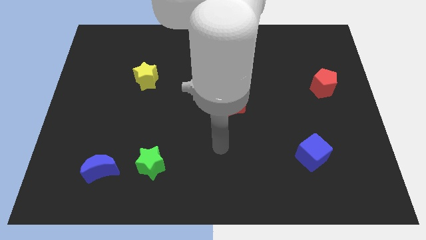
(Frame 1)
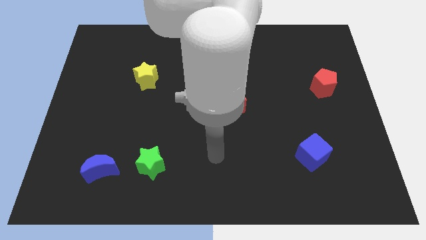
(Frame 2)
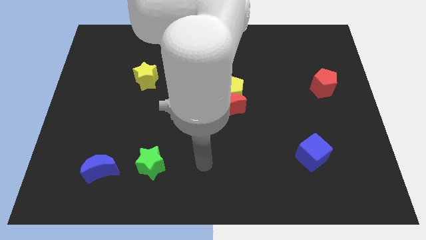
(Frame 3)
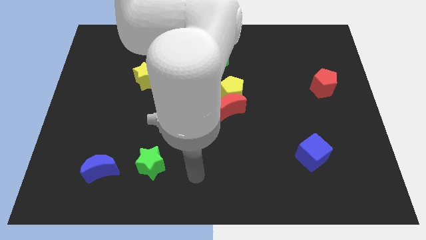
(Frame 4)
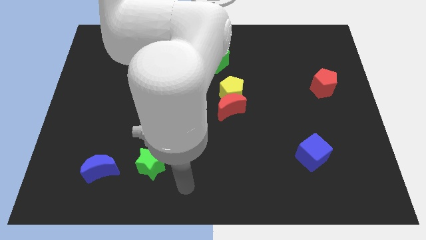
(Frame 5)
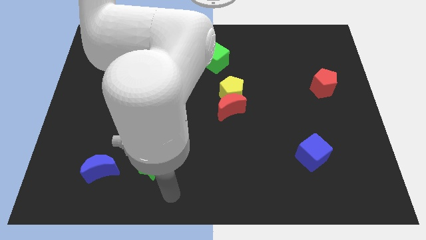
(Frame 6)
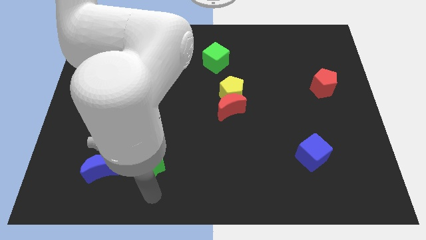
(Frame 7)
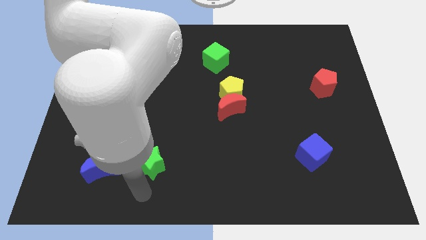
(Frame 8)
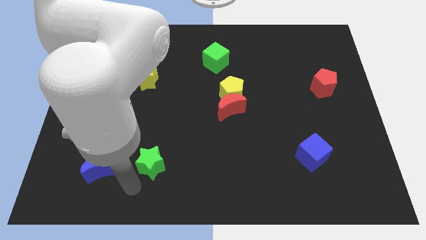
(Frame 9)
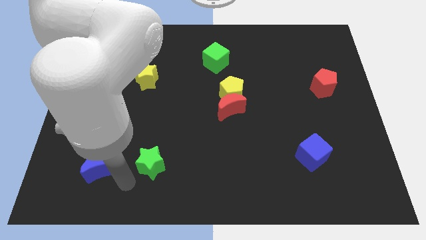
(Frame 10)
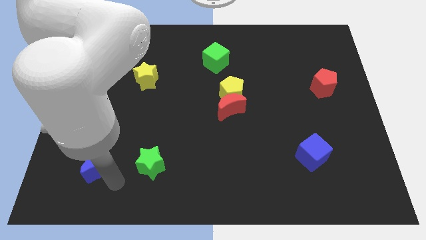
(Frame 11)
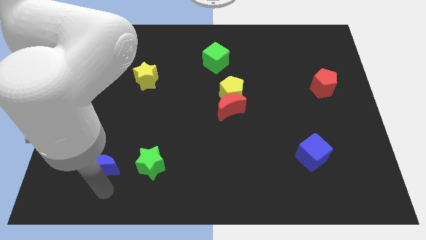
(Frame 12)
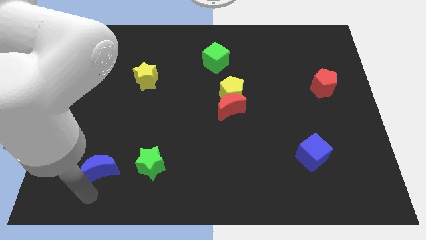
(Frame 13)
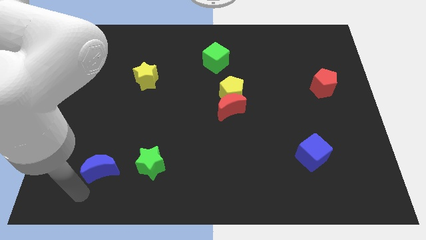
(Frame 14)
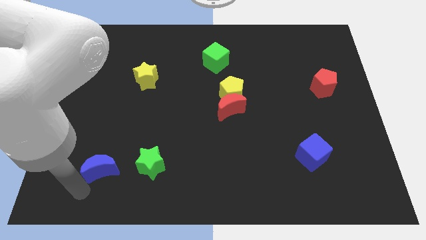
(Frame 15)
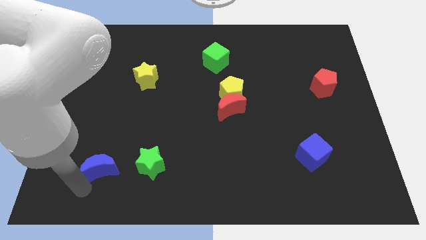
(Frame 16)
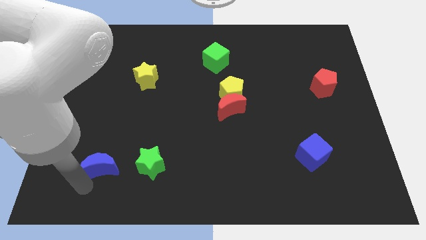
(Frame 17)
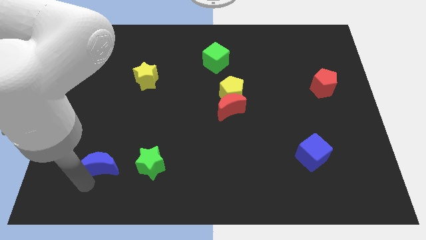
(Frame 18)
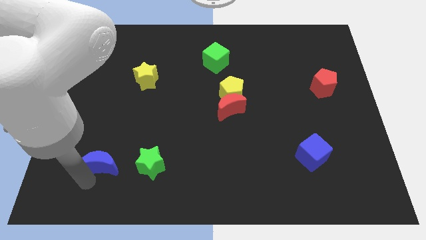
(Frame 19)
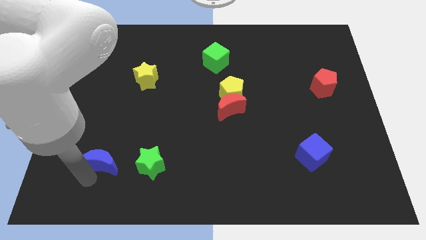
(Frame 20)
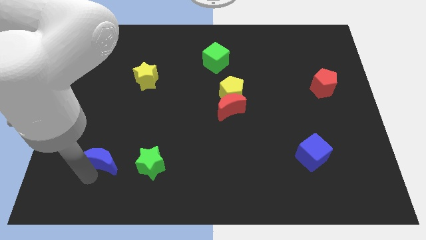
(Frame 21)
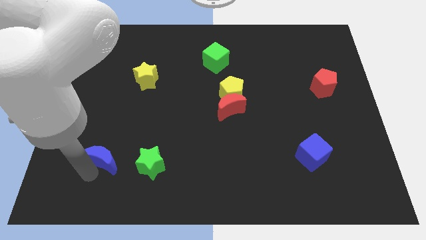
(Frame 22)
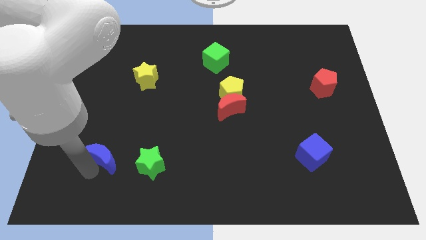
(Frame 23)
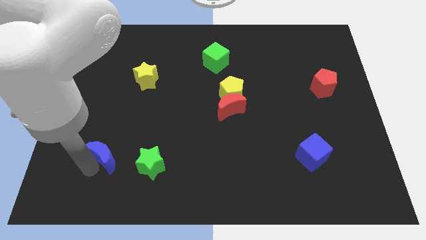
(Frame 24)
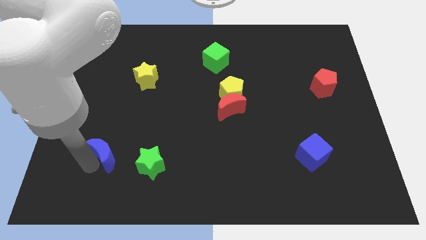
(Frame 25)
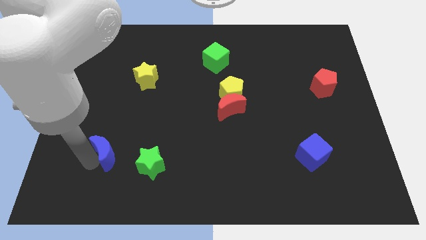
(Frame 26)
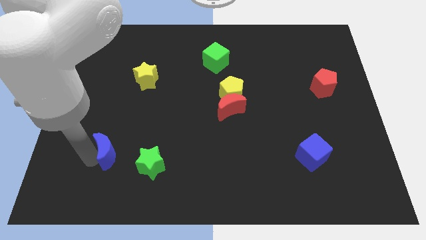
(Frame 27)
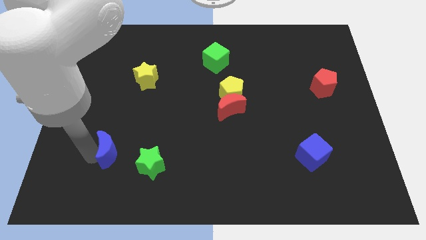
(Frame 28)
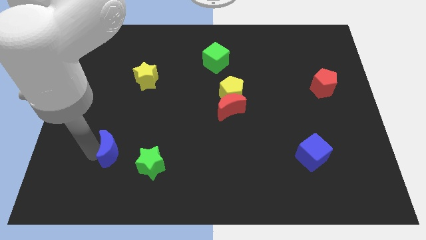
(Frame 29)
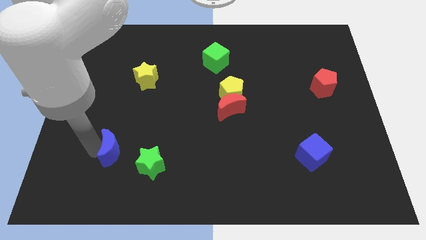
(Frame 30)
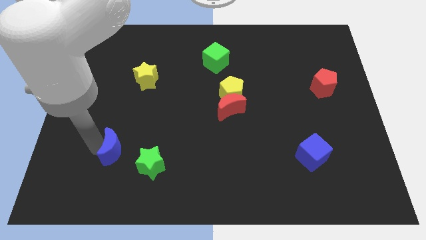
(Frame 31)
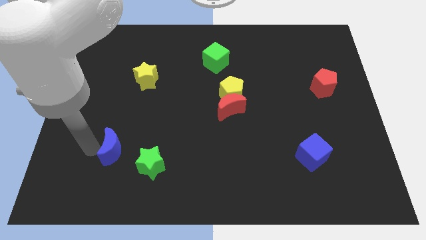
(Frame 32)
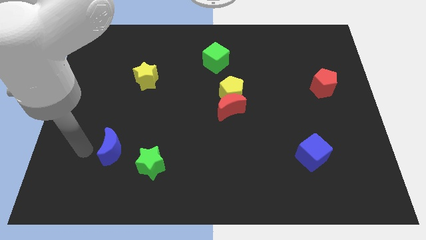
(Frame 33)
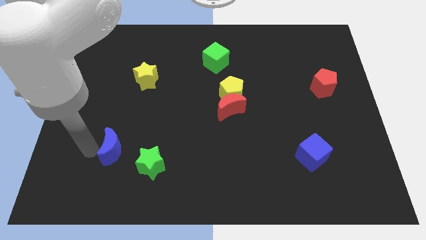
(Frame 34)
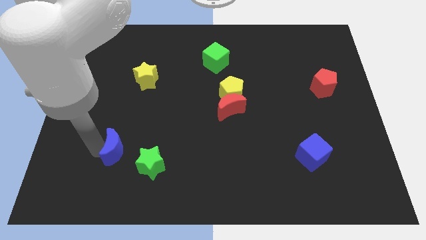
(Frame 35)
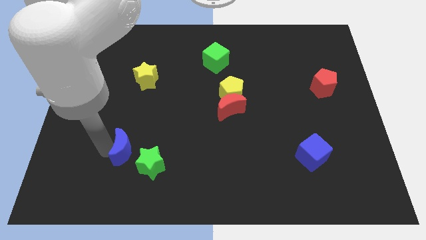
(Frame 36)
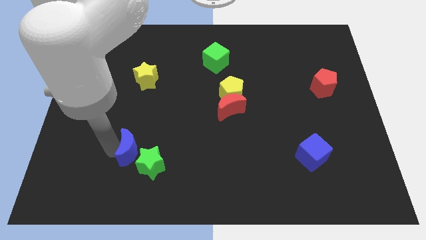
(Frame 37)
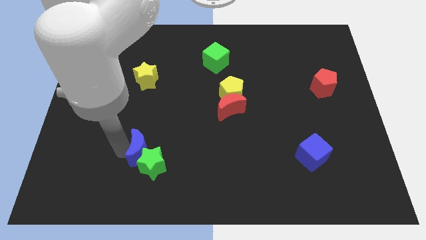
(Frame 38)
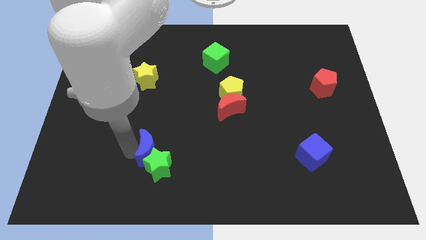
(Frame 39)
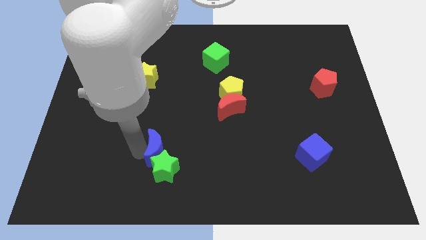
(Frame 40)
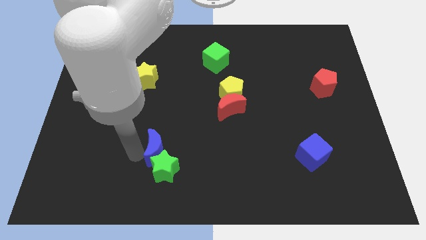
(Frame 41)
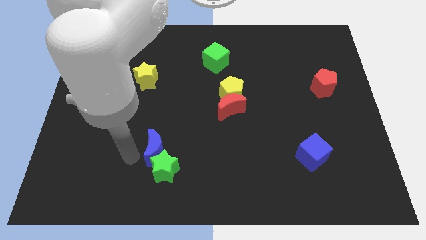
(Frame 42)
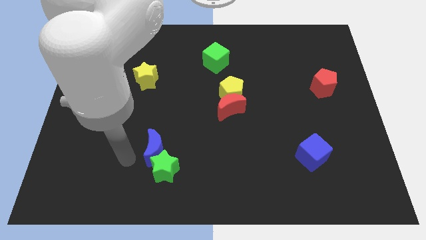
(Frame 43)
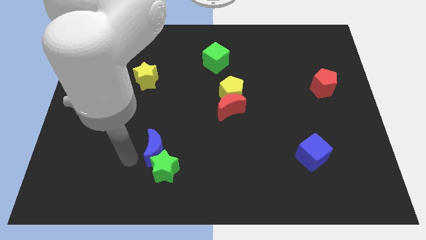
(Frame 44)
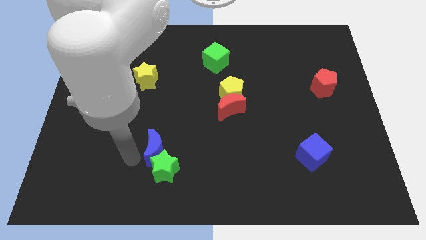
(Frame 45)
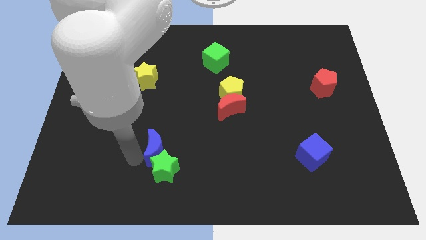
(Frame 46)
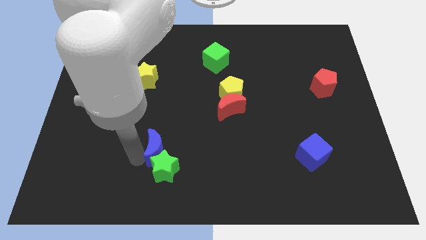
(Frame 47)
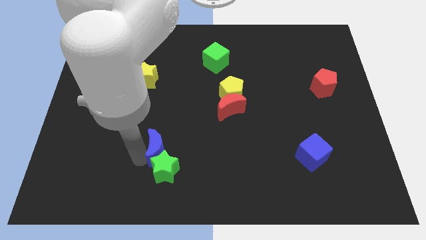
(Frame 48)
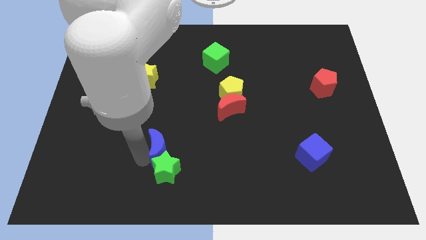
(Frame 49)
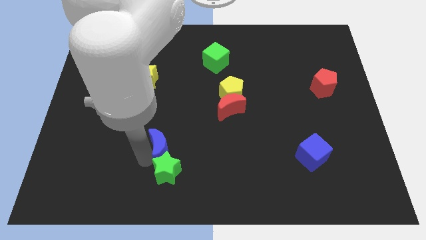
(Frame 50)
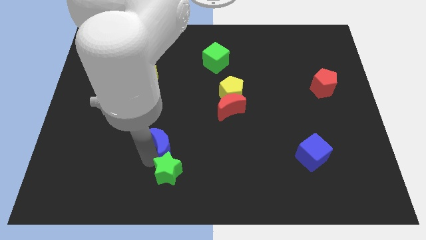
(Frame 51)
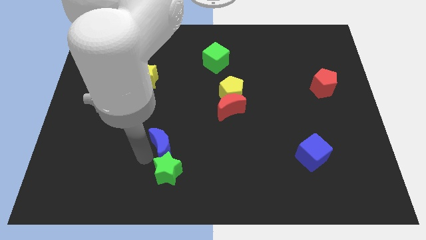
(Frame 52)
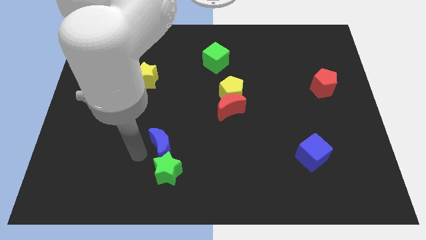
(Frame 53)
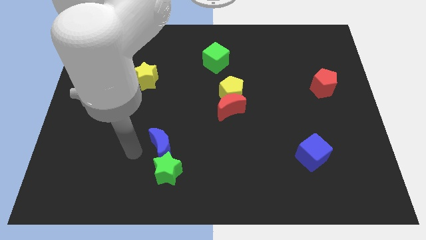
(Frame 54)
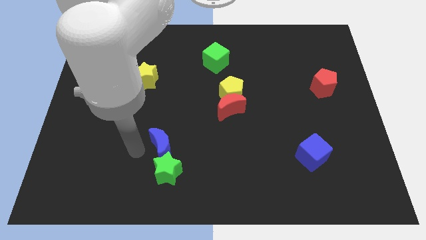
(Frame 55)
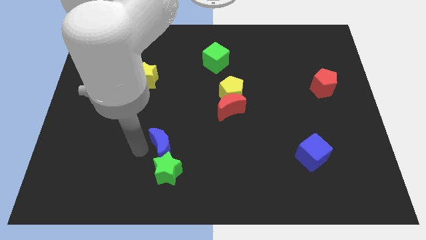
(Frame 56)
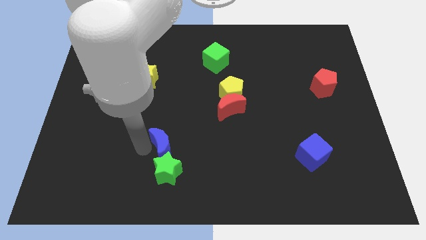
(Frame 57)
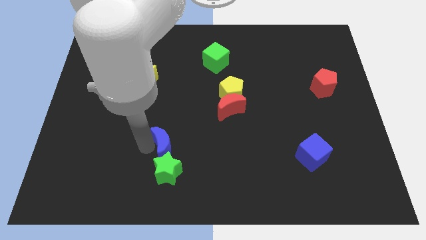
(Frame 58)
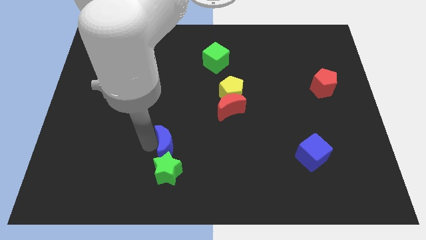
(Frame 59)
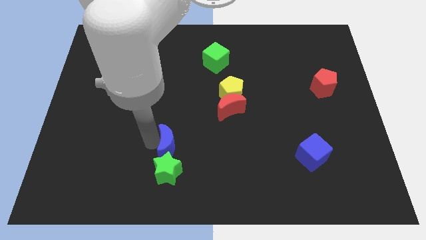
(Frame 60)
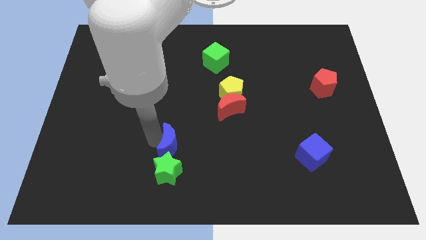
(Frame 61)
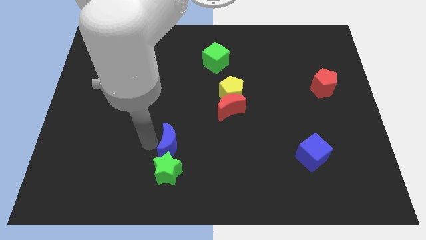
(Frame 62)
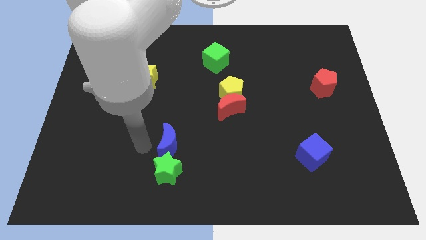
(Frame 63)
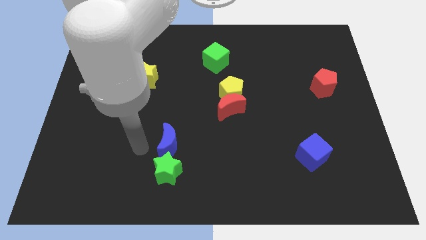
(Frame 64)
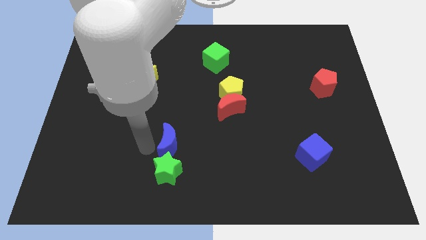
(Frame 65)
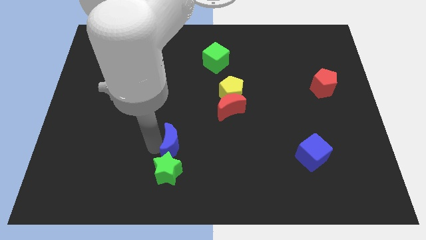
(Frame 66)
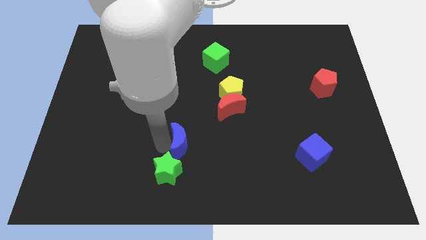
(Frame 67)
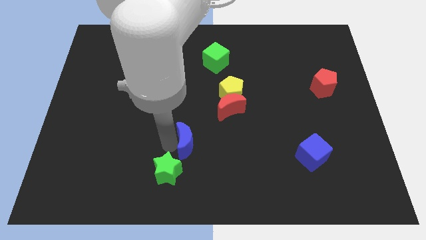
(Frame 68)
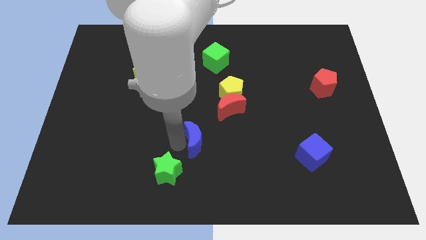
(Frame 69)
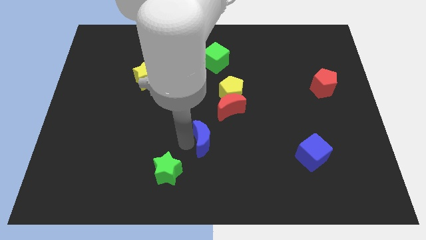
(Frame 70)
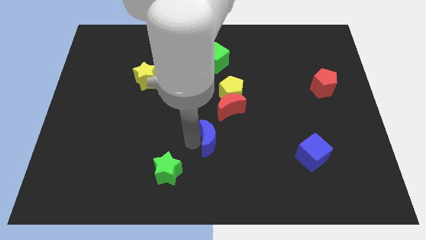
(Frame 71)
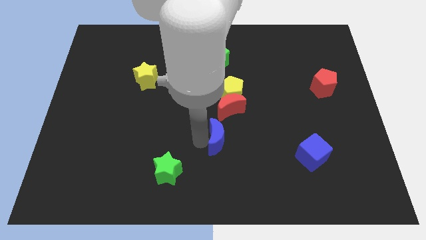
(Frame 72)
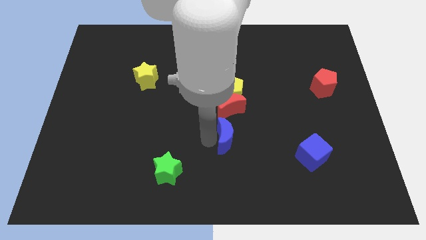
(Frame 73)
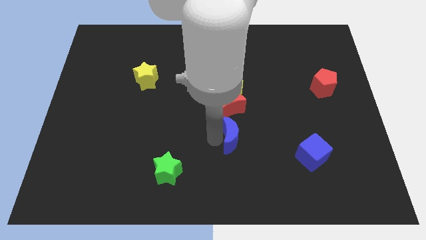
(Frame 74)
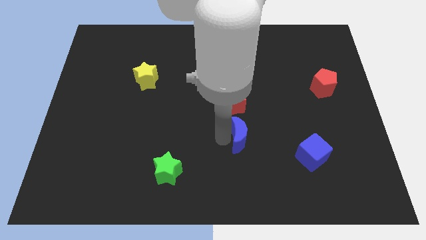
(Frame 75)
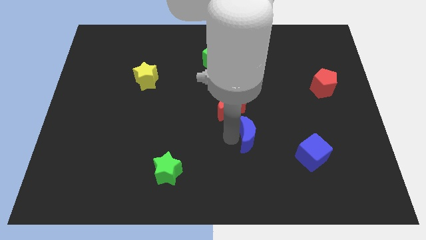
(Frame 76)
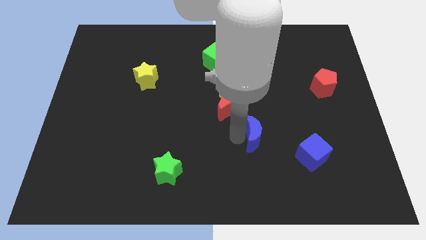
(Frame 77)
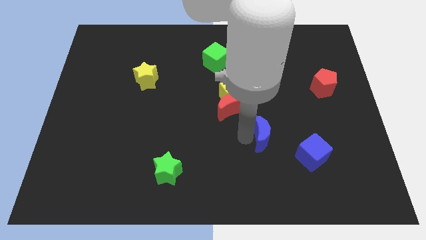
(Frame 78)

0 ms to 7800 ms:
push the blue moon to the top left side of the blue cube
